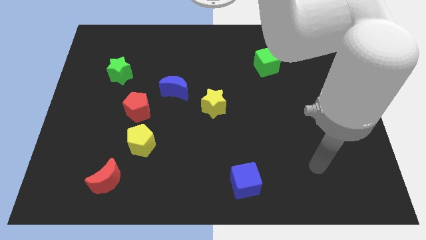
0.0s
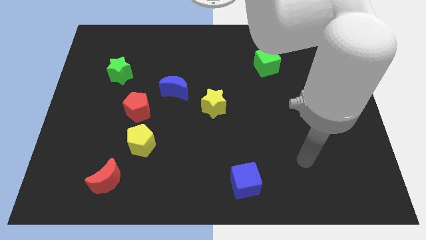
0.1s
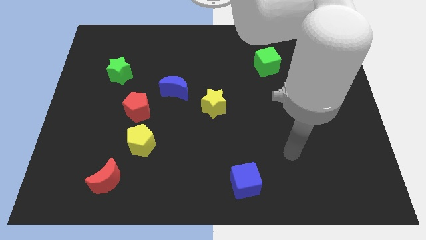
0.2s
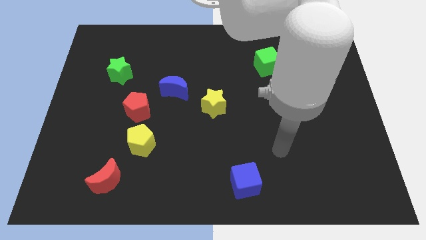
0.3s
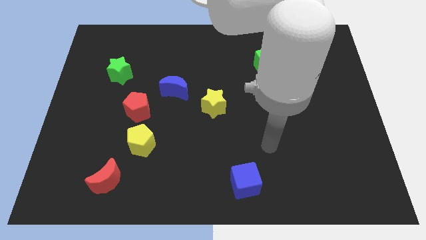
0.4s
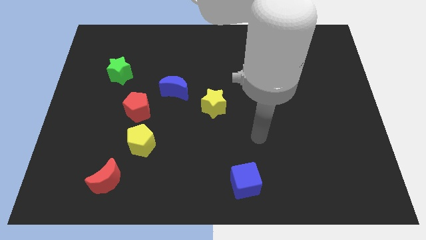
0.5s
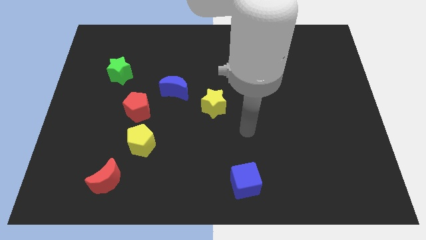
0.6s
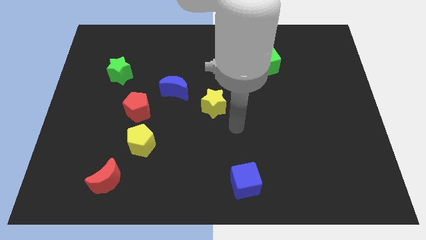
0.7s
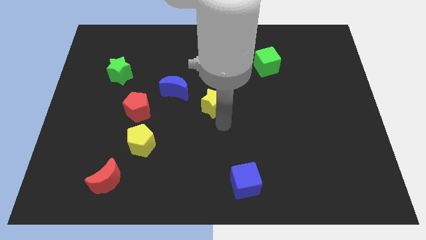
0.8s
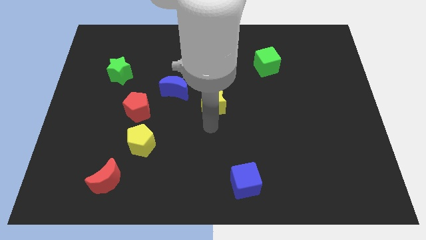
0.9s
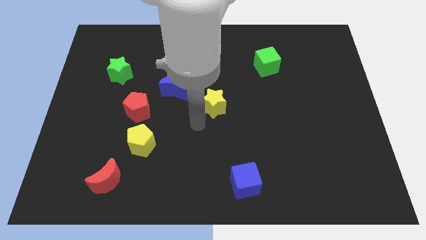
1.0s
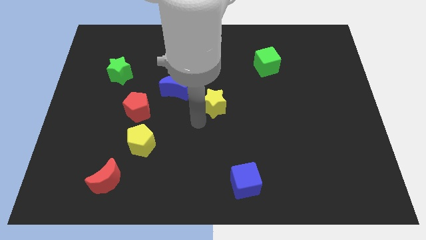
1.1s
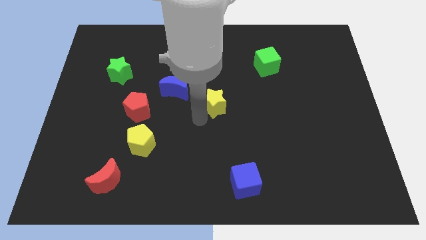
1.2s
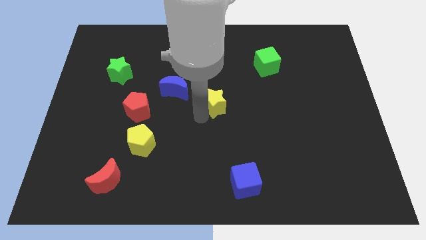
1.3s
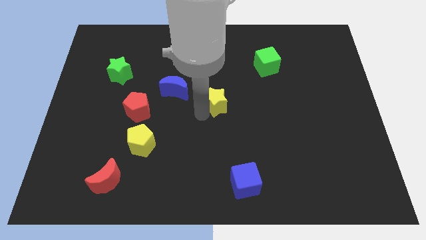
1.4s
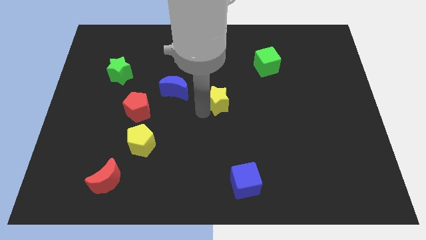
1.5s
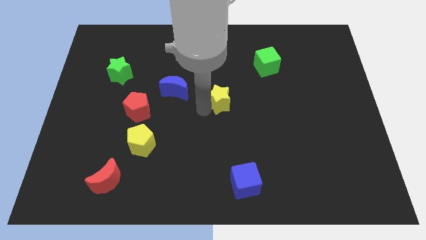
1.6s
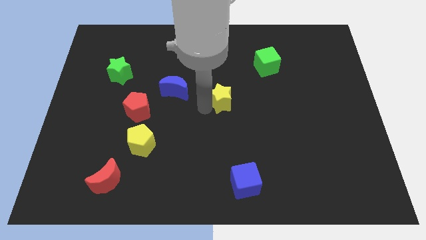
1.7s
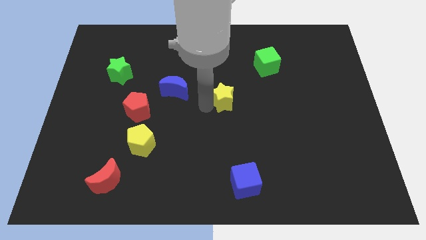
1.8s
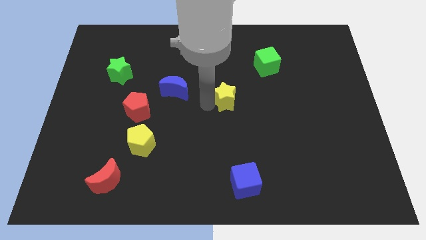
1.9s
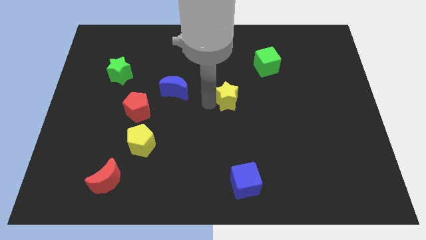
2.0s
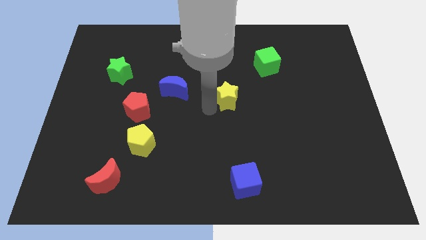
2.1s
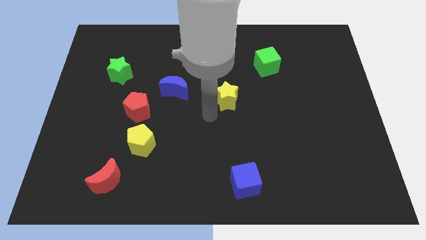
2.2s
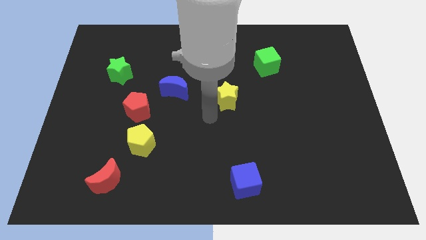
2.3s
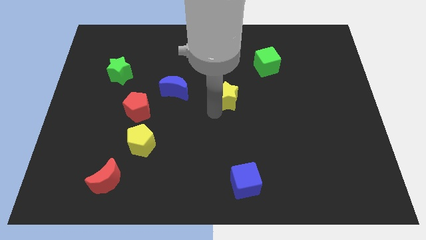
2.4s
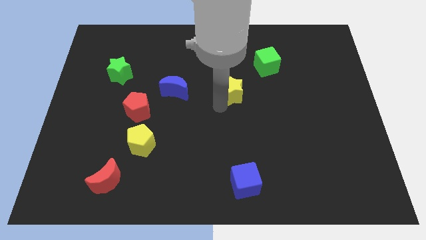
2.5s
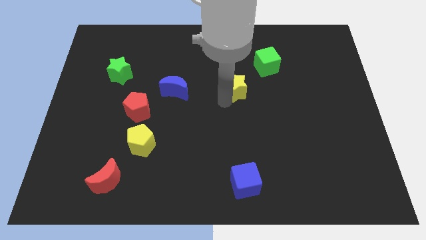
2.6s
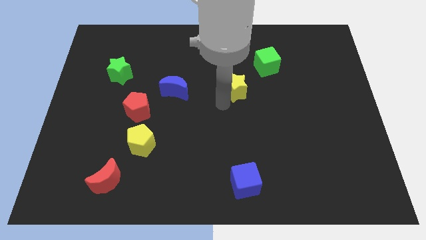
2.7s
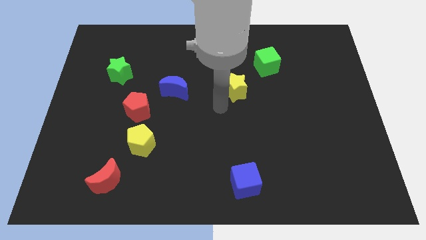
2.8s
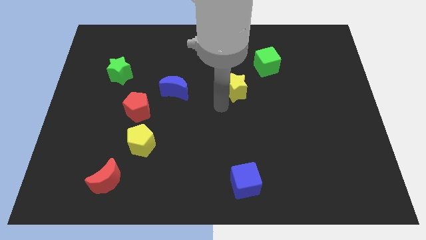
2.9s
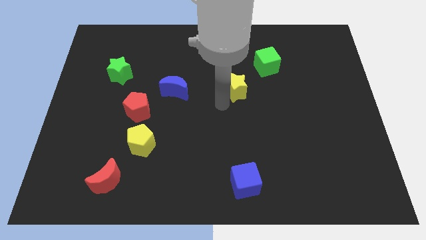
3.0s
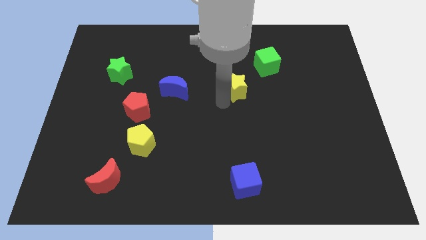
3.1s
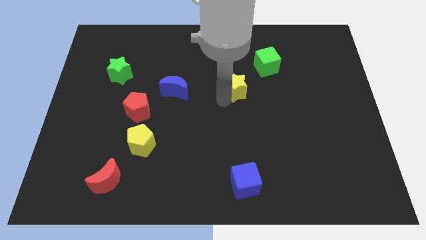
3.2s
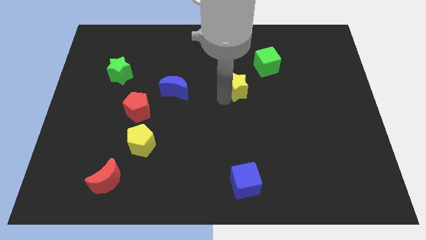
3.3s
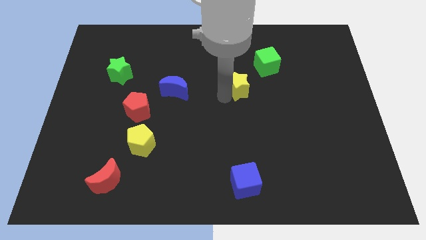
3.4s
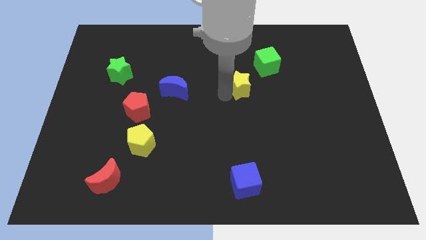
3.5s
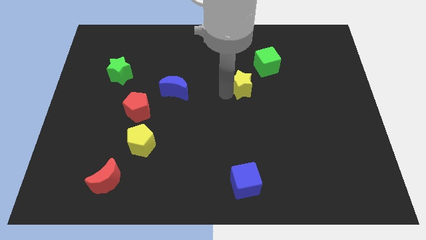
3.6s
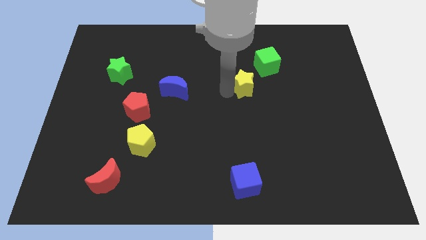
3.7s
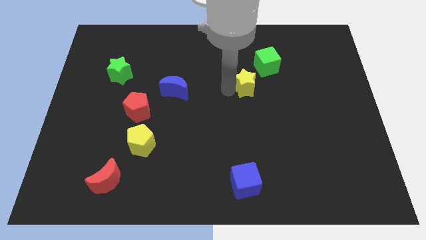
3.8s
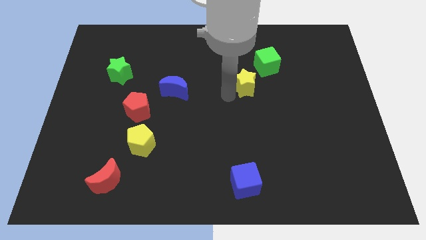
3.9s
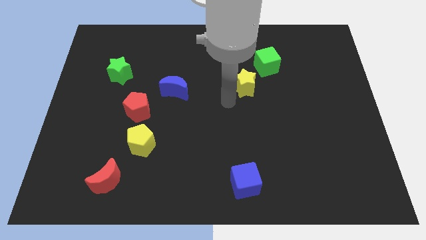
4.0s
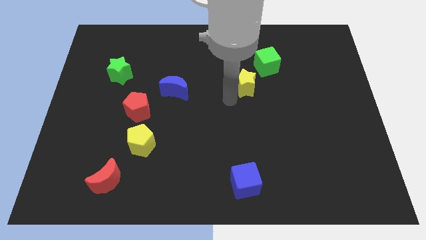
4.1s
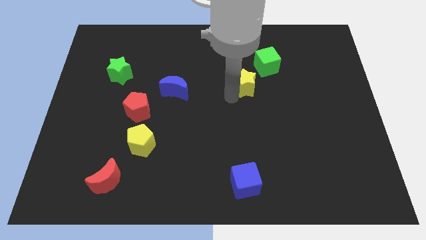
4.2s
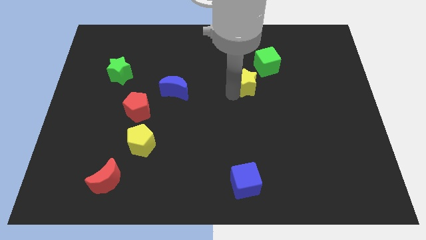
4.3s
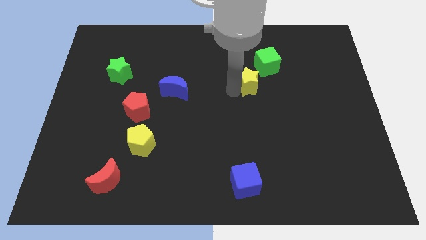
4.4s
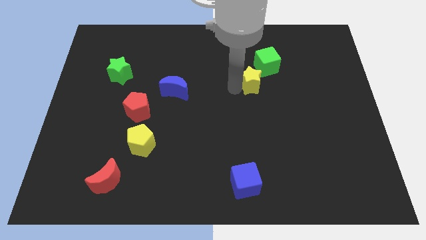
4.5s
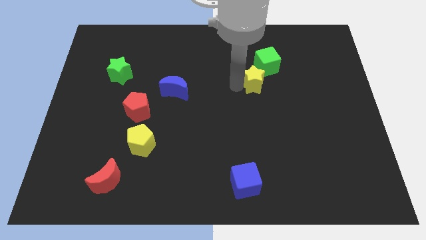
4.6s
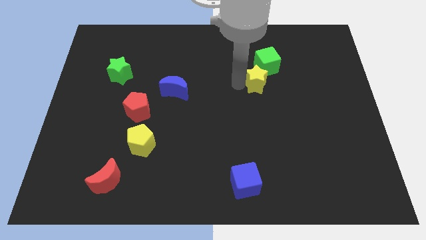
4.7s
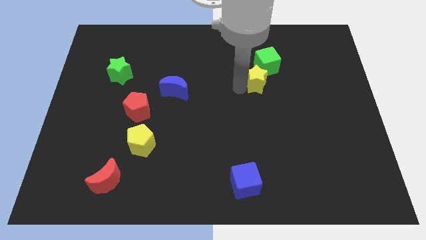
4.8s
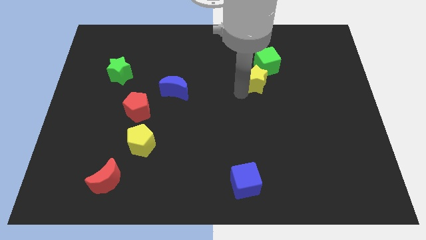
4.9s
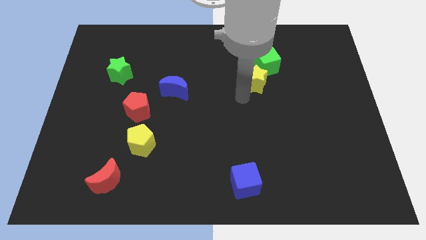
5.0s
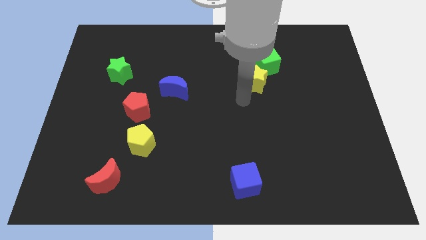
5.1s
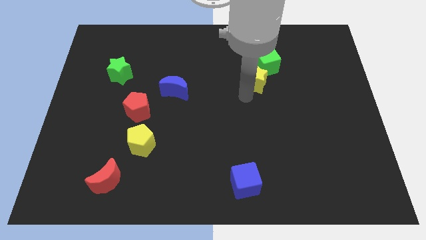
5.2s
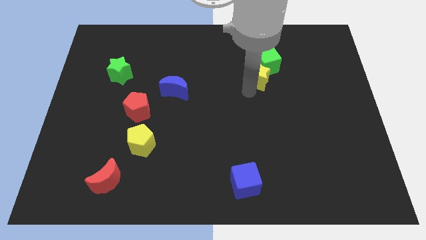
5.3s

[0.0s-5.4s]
move the yellow star next to the green cube

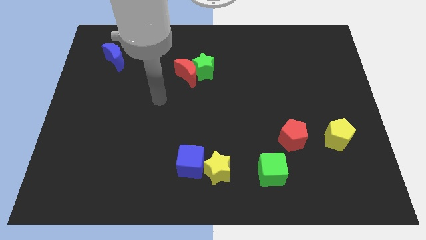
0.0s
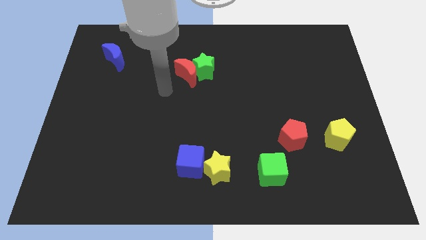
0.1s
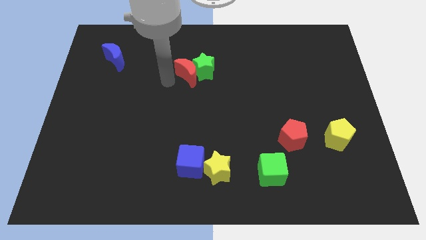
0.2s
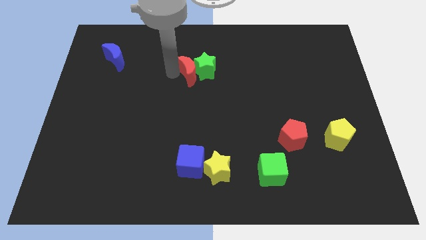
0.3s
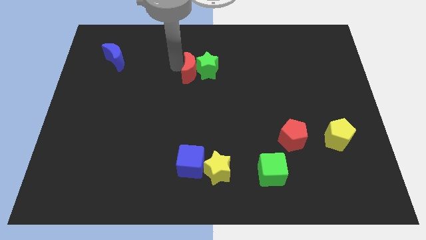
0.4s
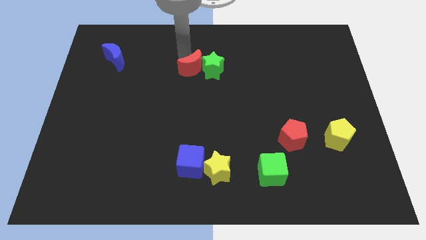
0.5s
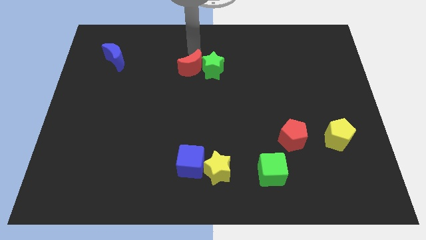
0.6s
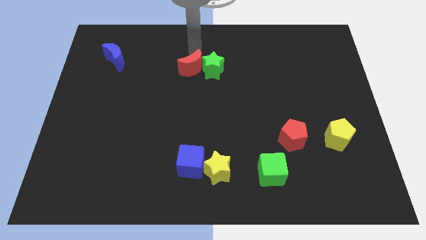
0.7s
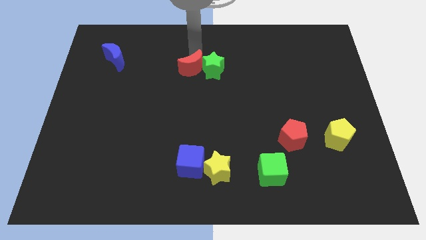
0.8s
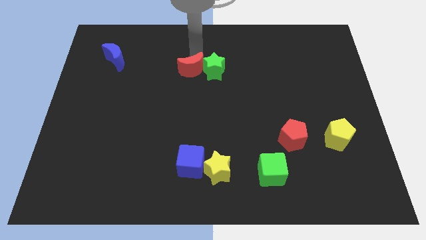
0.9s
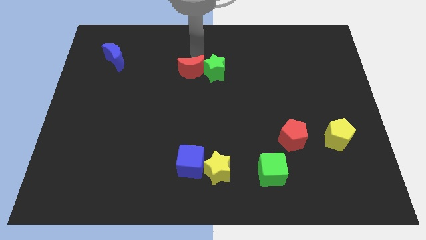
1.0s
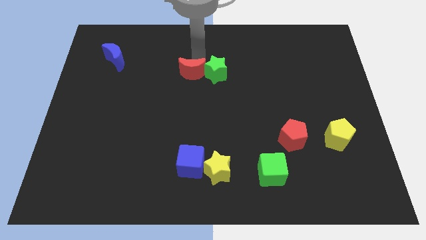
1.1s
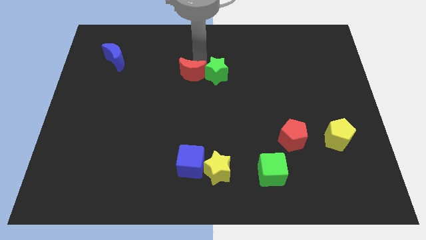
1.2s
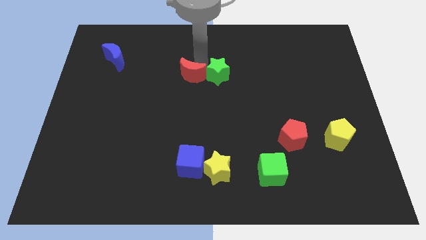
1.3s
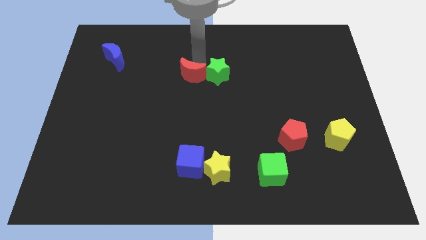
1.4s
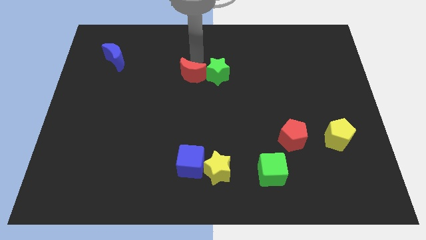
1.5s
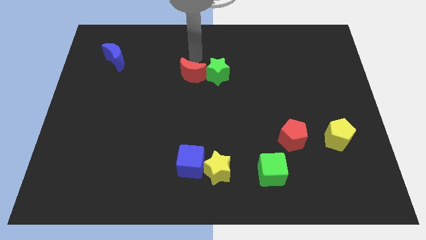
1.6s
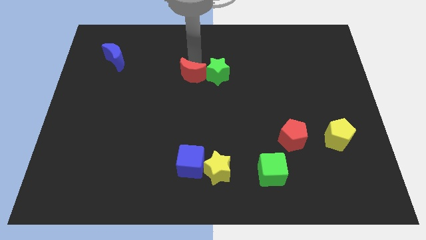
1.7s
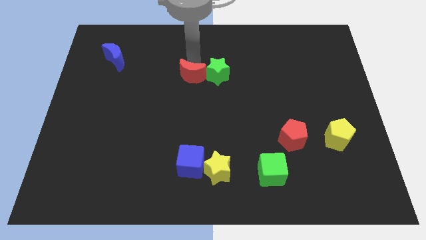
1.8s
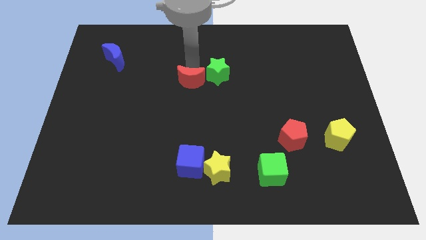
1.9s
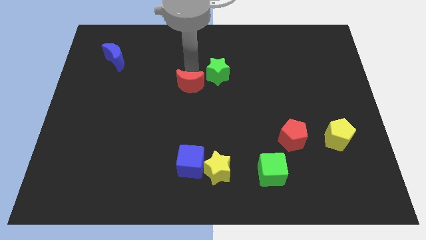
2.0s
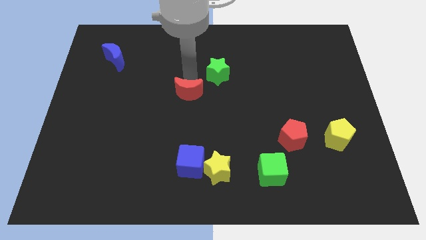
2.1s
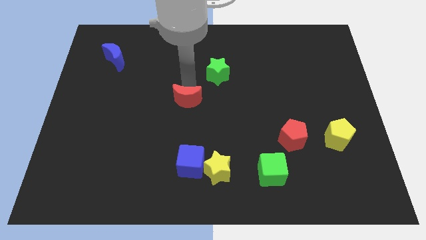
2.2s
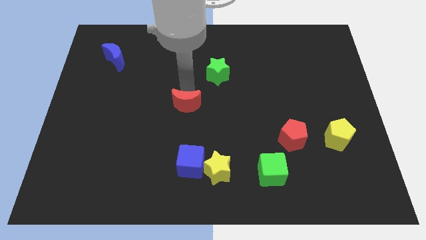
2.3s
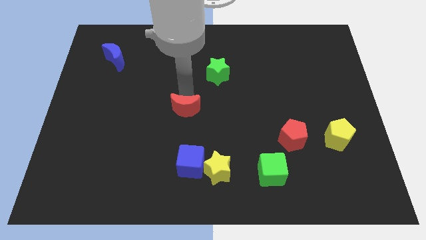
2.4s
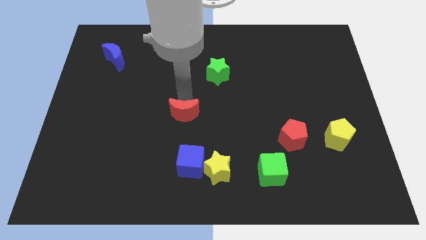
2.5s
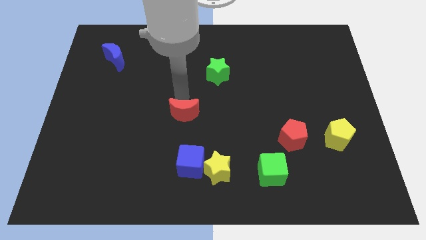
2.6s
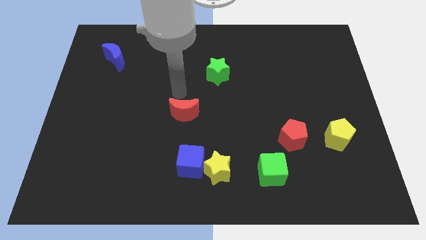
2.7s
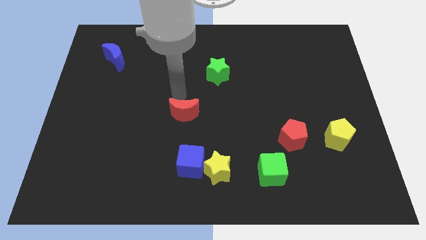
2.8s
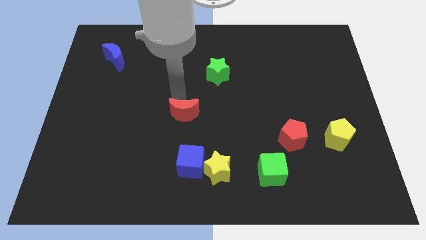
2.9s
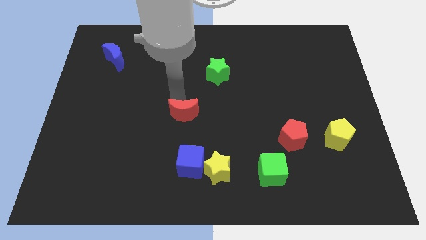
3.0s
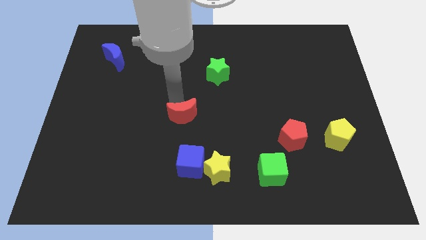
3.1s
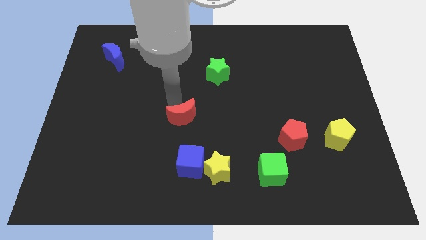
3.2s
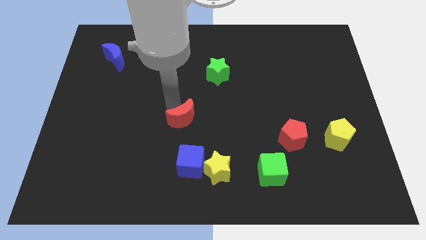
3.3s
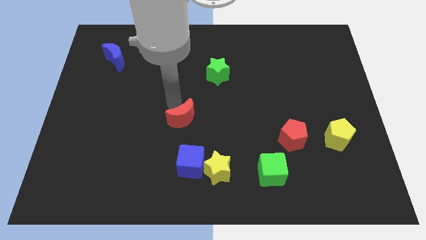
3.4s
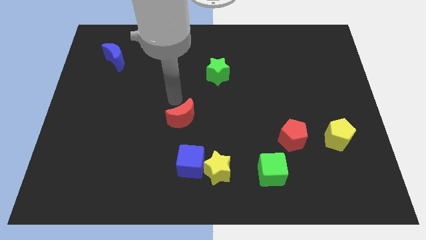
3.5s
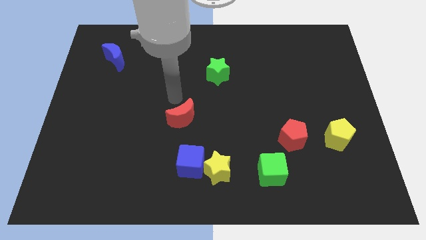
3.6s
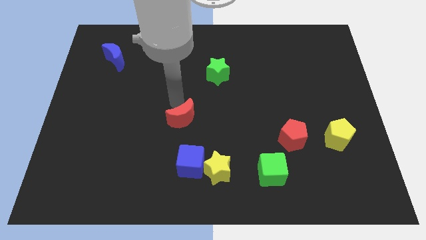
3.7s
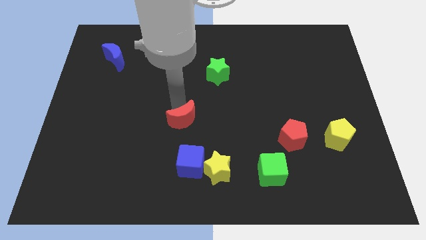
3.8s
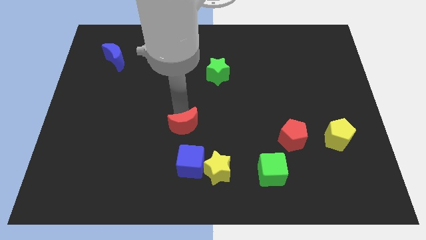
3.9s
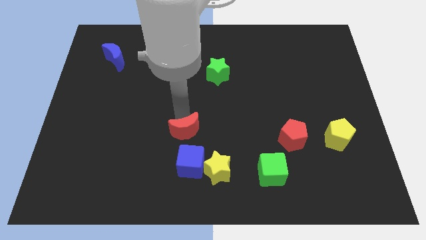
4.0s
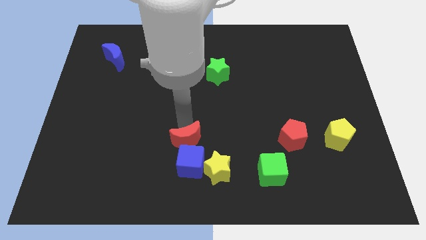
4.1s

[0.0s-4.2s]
put the red moon close to the blue cube
